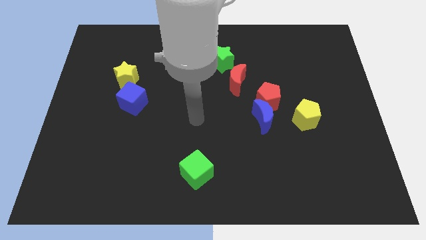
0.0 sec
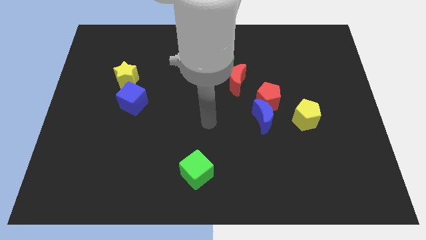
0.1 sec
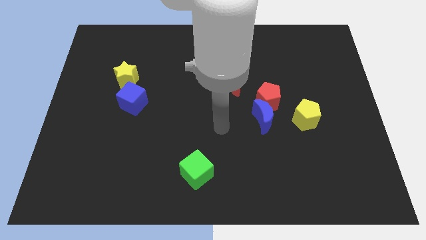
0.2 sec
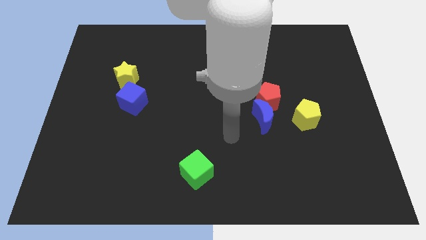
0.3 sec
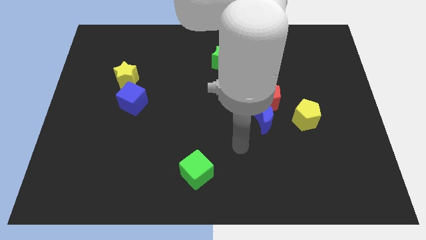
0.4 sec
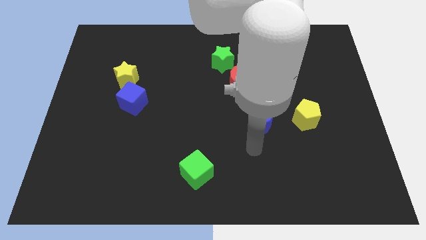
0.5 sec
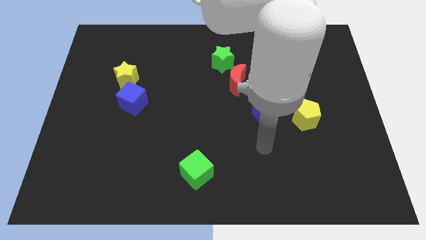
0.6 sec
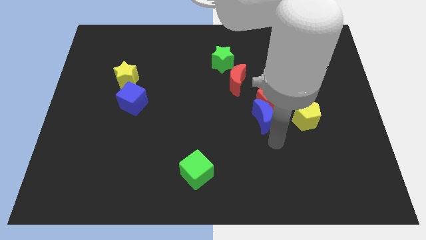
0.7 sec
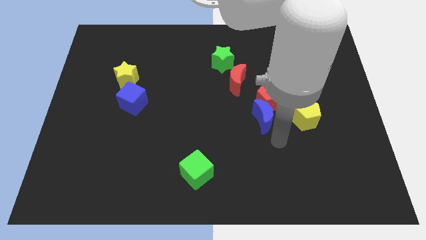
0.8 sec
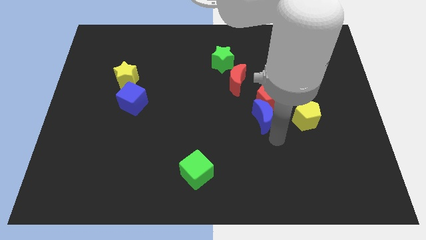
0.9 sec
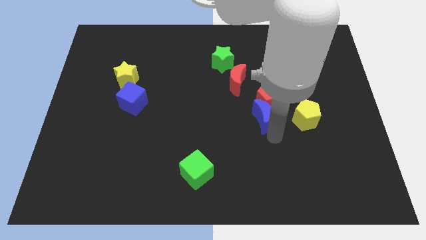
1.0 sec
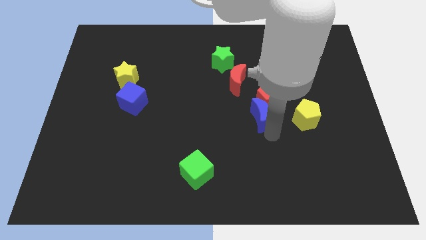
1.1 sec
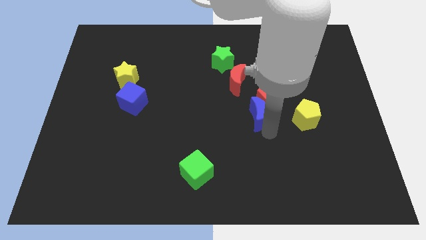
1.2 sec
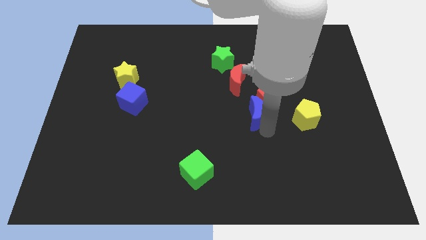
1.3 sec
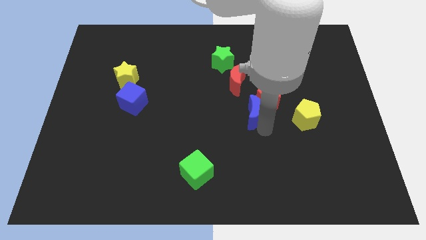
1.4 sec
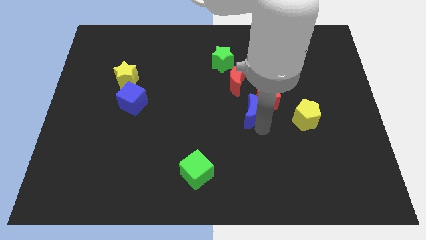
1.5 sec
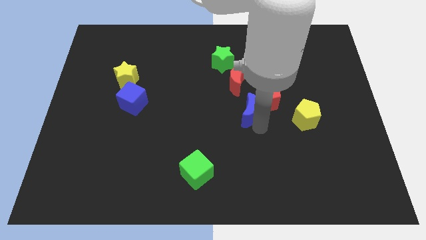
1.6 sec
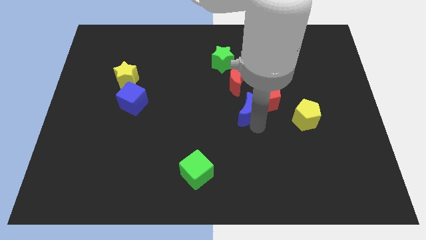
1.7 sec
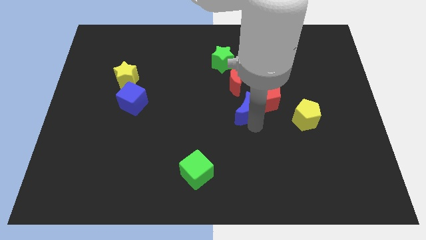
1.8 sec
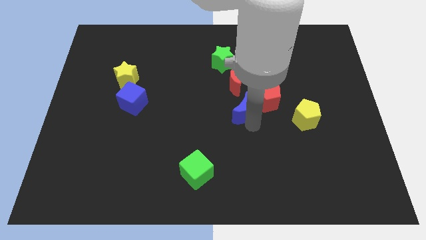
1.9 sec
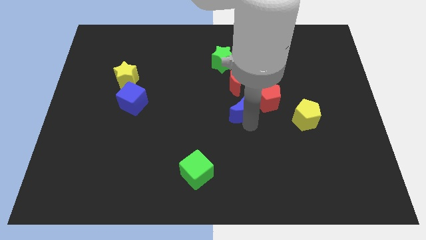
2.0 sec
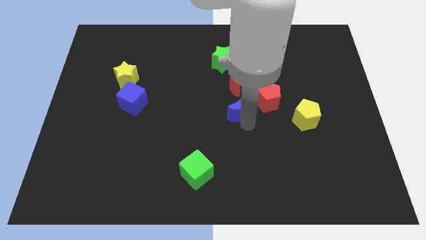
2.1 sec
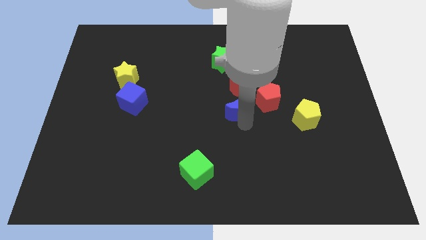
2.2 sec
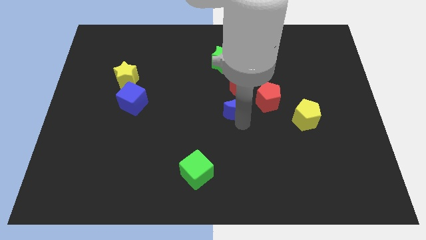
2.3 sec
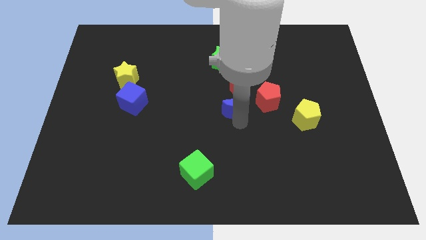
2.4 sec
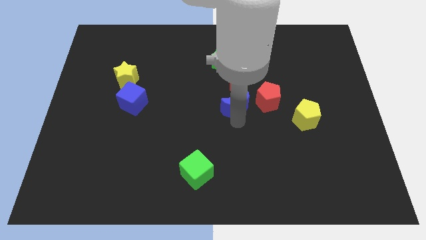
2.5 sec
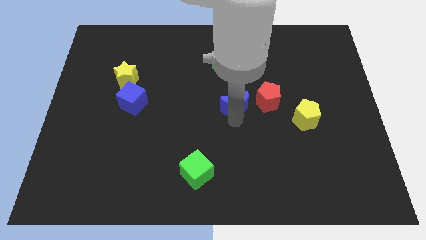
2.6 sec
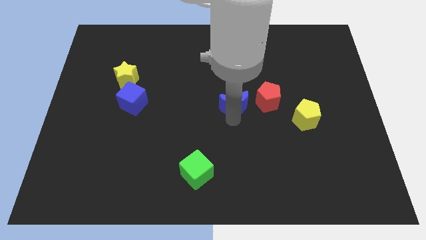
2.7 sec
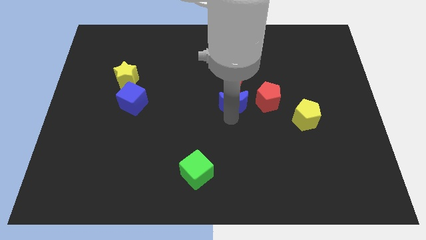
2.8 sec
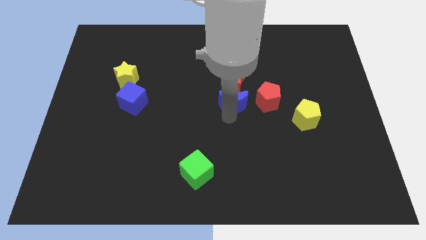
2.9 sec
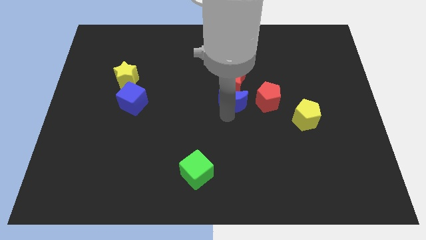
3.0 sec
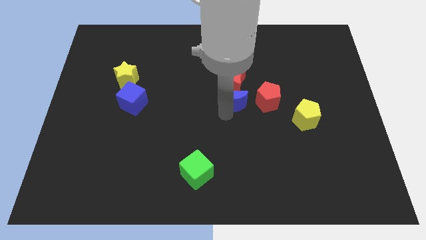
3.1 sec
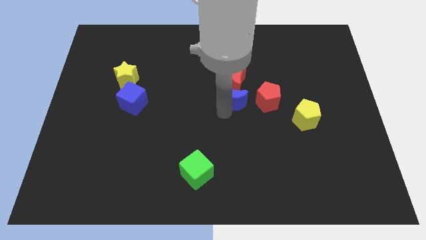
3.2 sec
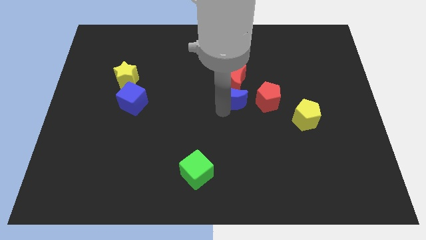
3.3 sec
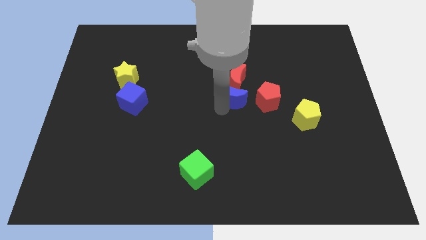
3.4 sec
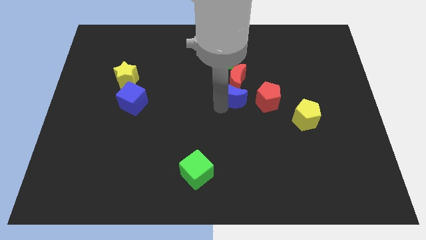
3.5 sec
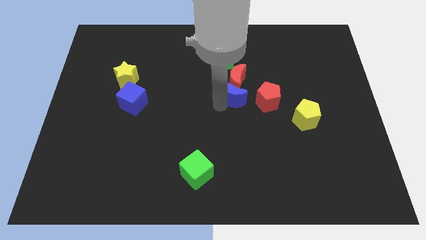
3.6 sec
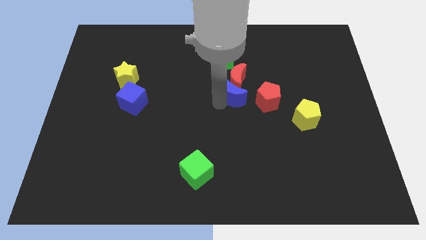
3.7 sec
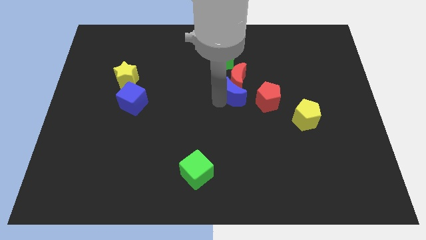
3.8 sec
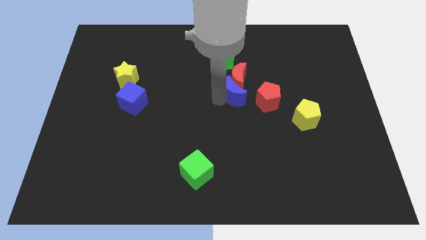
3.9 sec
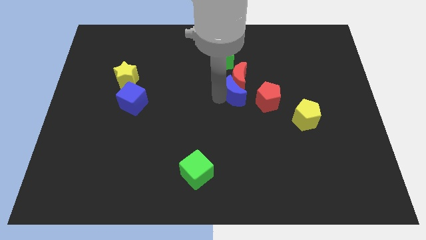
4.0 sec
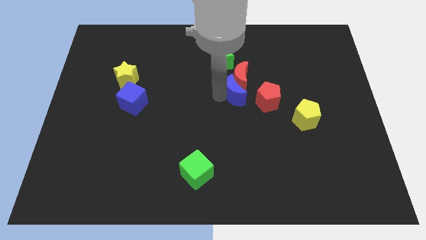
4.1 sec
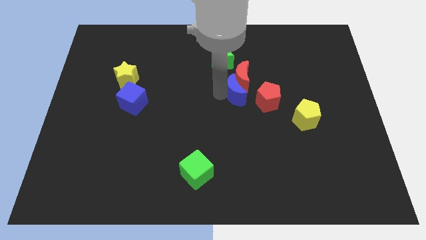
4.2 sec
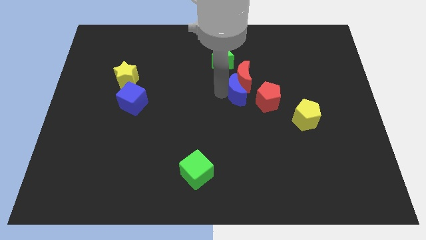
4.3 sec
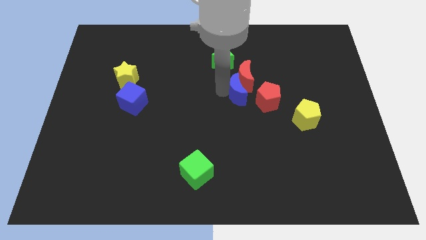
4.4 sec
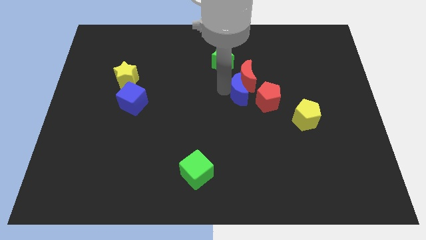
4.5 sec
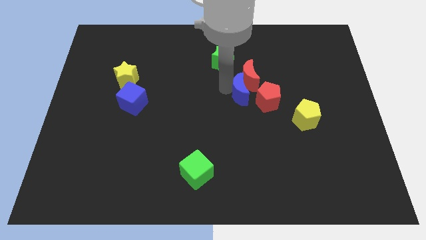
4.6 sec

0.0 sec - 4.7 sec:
slightly move the blue moon up

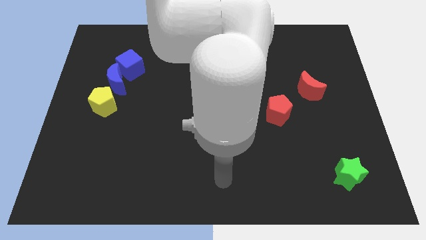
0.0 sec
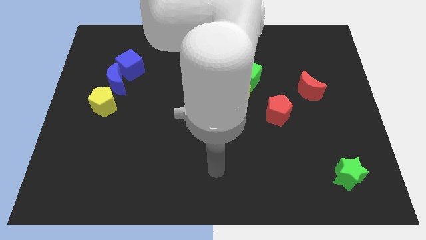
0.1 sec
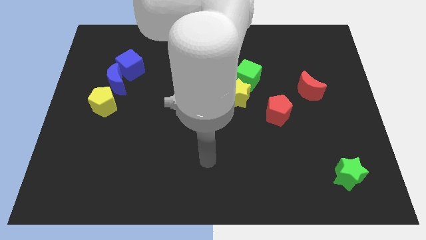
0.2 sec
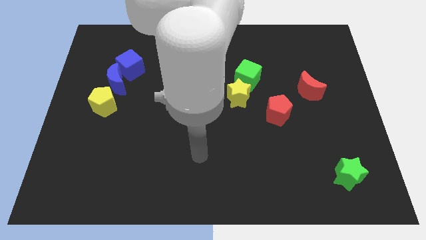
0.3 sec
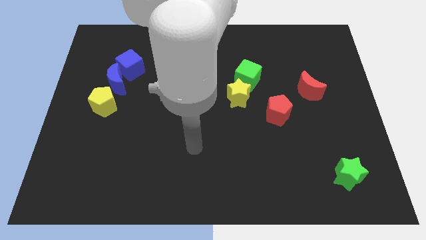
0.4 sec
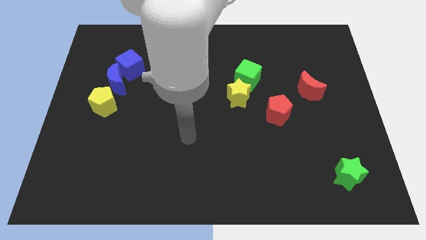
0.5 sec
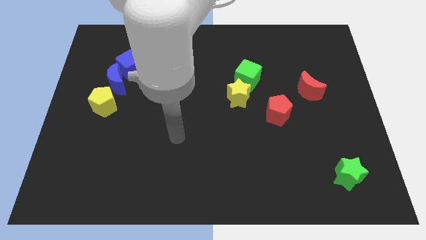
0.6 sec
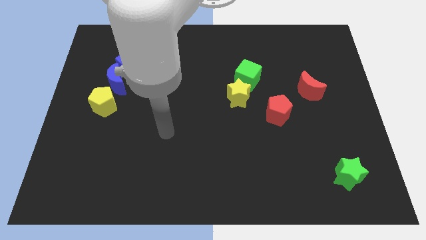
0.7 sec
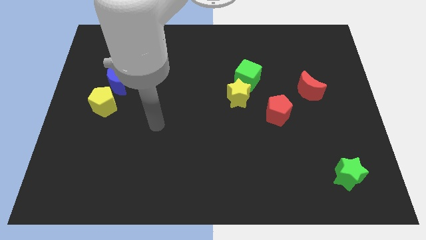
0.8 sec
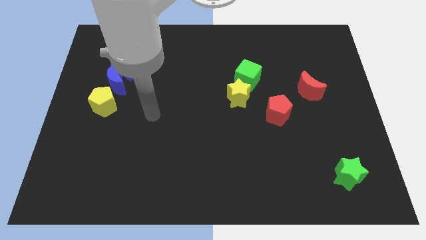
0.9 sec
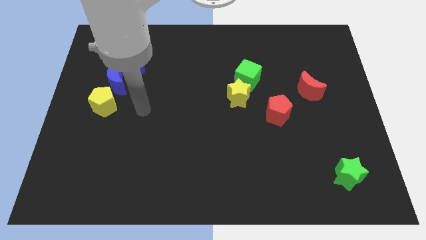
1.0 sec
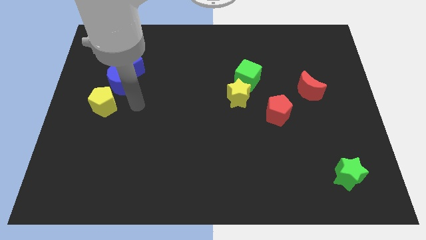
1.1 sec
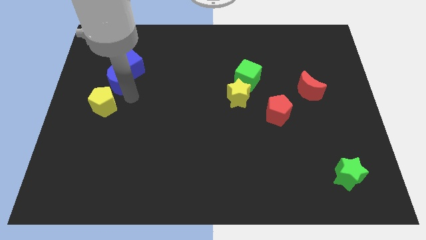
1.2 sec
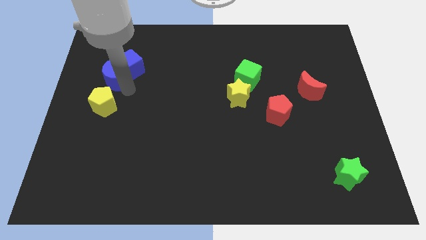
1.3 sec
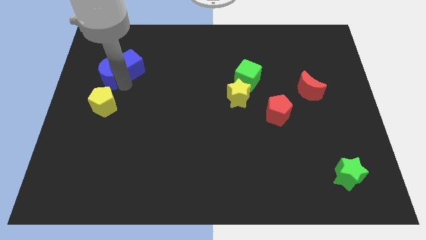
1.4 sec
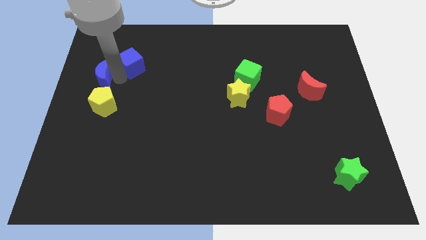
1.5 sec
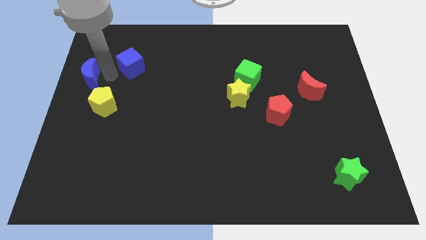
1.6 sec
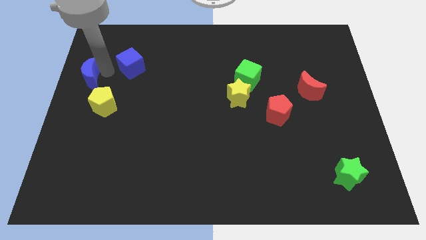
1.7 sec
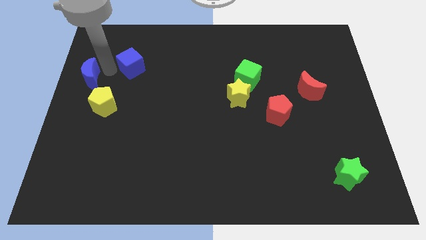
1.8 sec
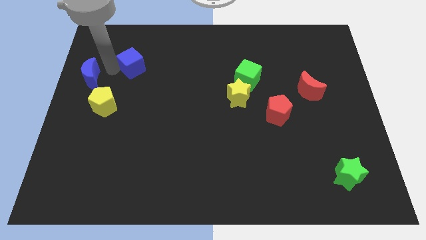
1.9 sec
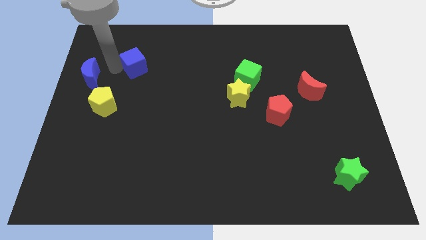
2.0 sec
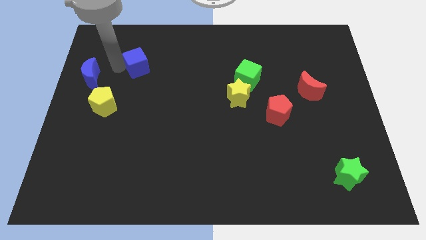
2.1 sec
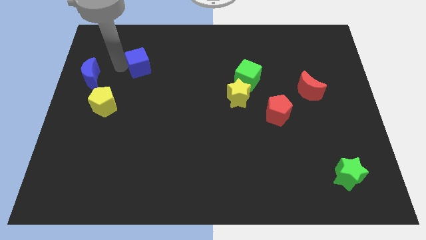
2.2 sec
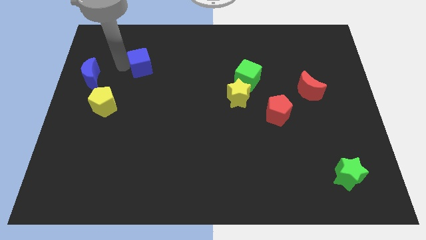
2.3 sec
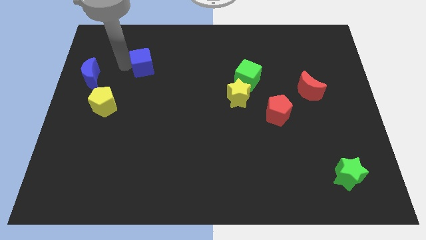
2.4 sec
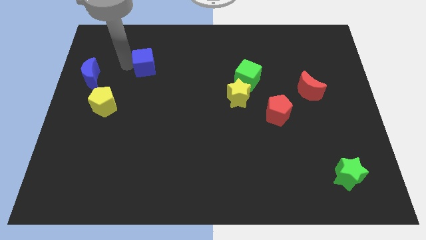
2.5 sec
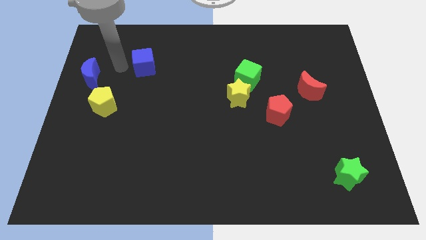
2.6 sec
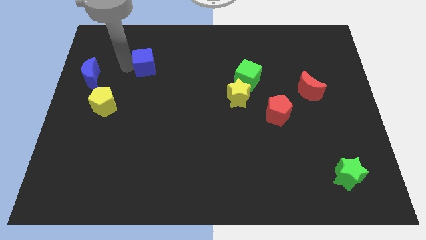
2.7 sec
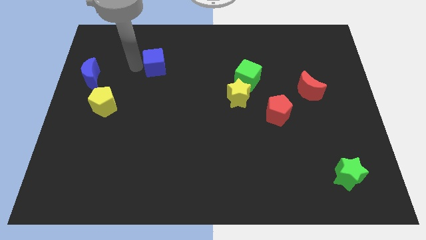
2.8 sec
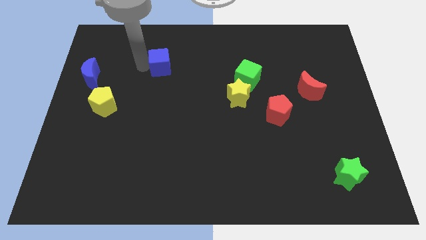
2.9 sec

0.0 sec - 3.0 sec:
slide the blue cube slightly right
